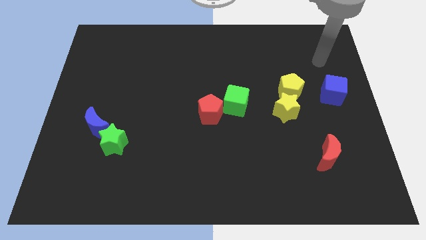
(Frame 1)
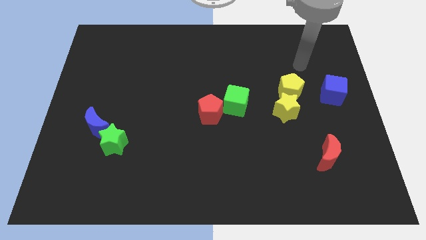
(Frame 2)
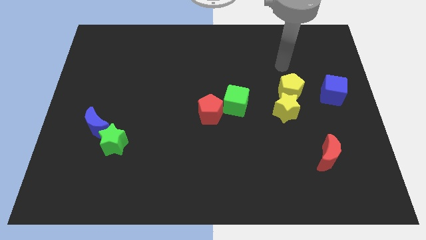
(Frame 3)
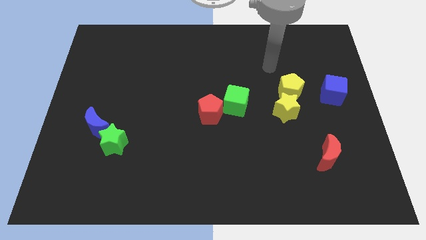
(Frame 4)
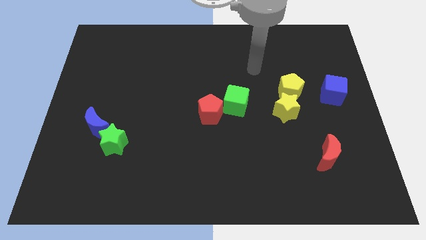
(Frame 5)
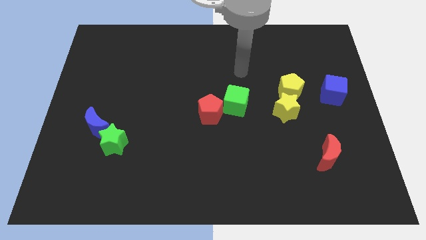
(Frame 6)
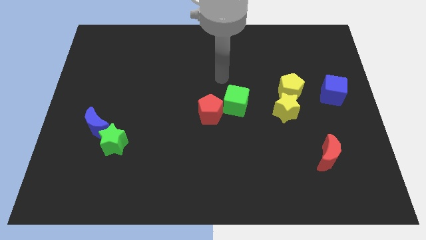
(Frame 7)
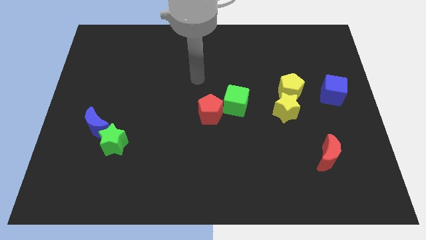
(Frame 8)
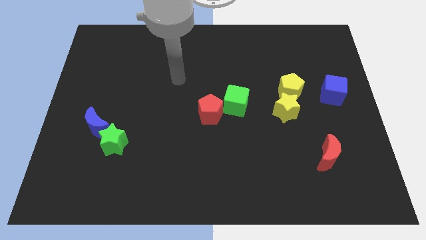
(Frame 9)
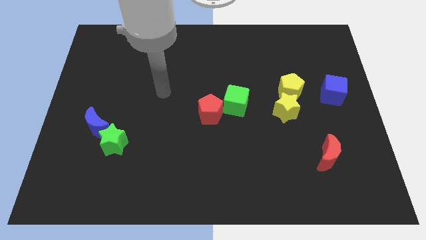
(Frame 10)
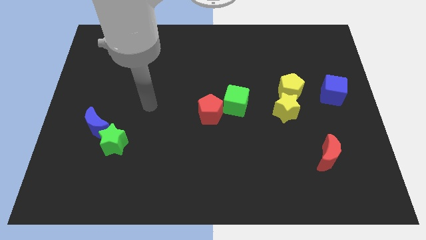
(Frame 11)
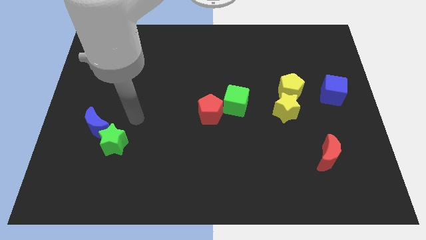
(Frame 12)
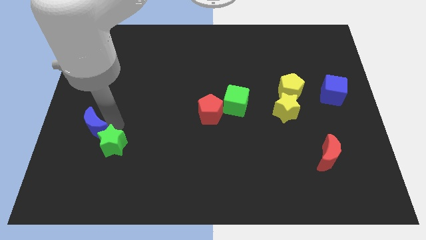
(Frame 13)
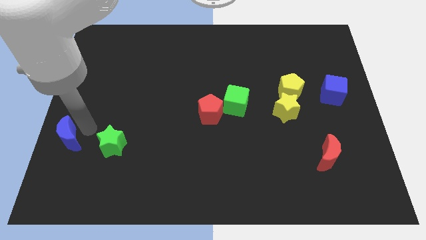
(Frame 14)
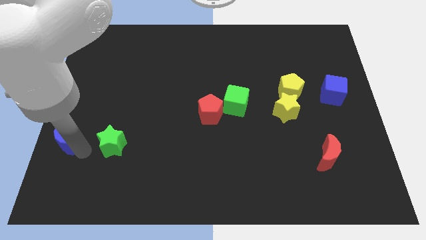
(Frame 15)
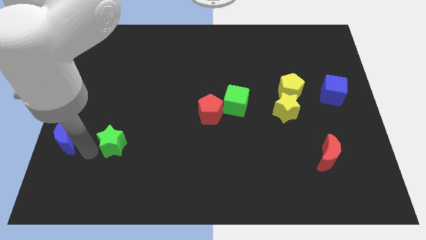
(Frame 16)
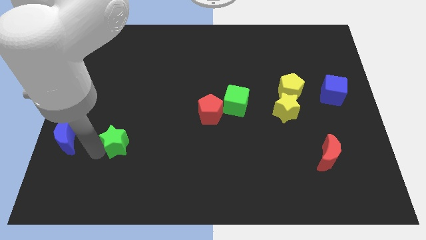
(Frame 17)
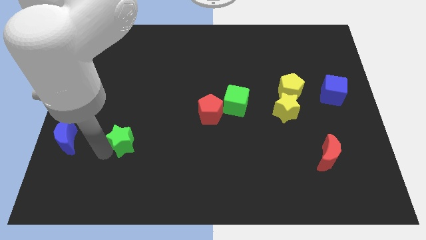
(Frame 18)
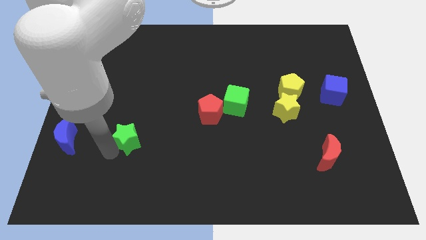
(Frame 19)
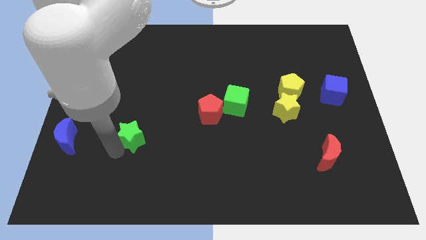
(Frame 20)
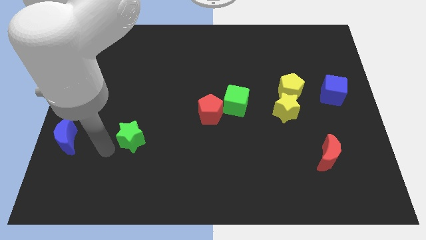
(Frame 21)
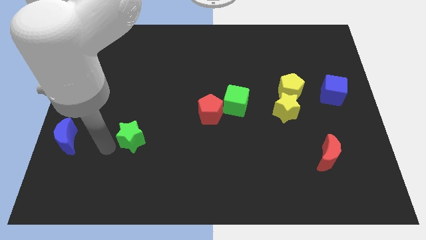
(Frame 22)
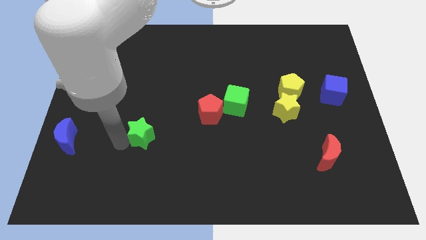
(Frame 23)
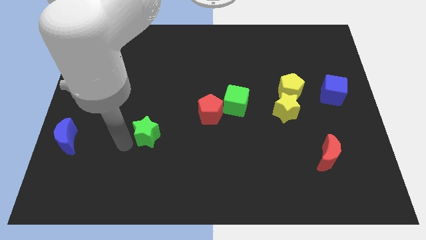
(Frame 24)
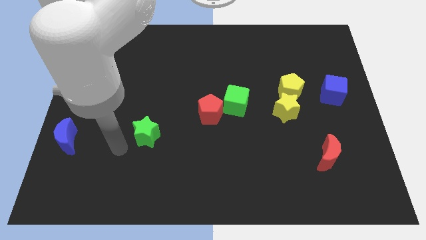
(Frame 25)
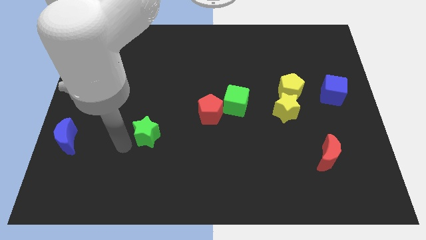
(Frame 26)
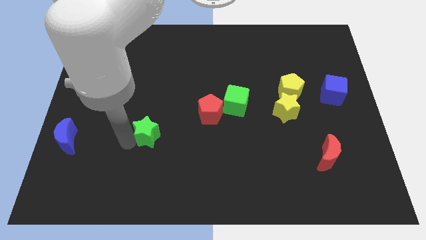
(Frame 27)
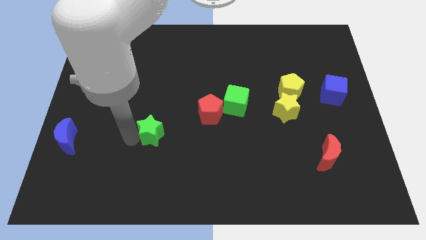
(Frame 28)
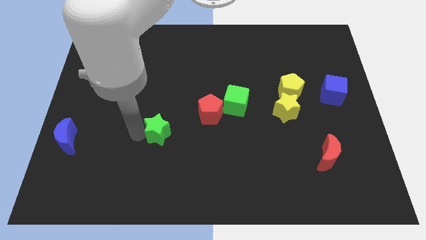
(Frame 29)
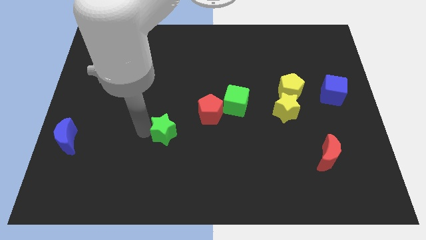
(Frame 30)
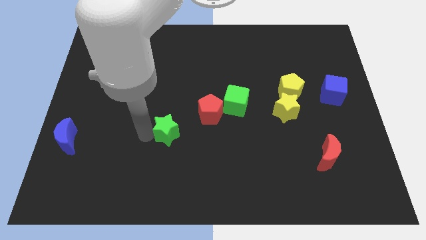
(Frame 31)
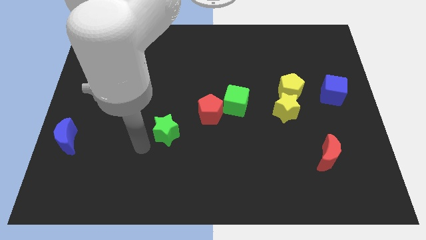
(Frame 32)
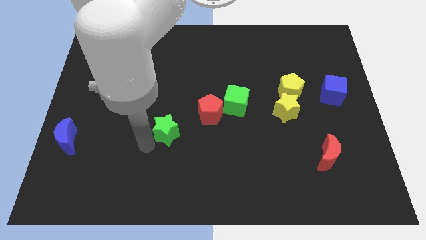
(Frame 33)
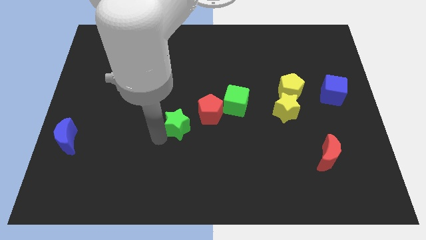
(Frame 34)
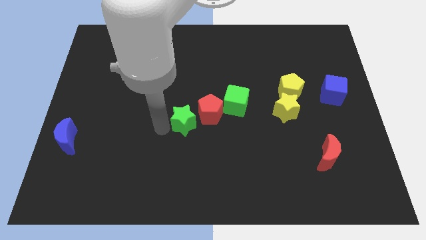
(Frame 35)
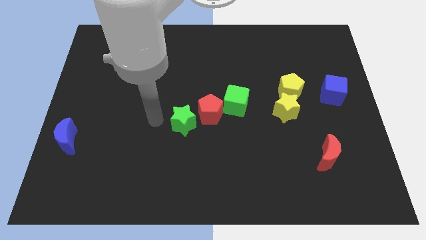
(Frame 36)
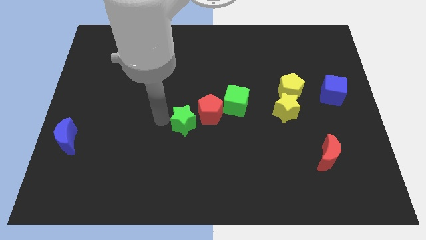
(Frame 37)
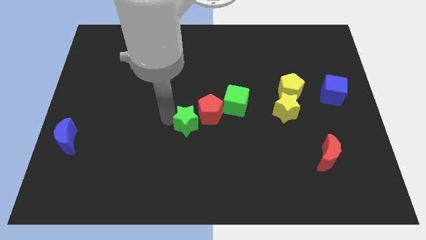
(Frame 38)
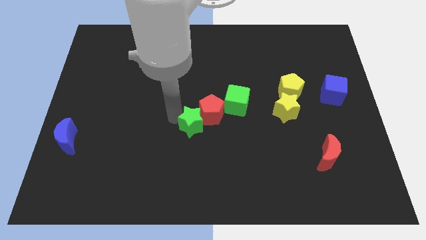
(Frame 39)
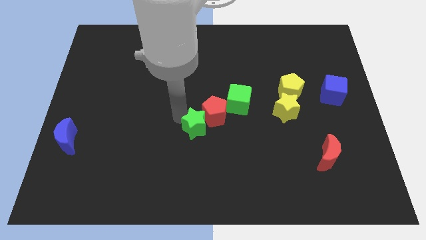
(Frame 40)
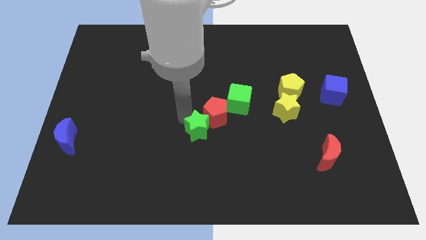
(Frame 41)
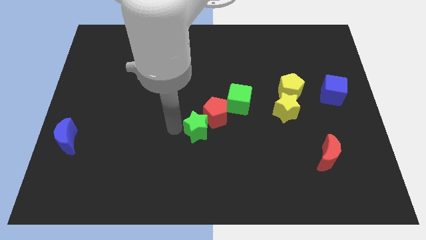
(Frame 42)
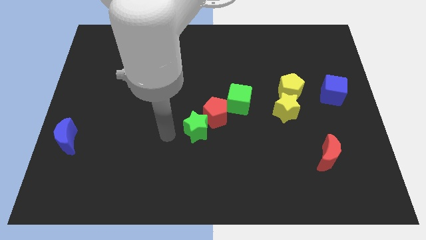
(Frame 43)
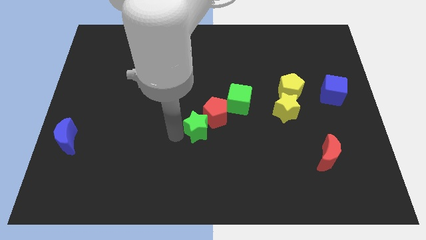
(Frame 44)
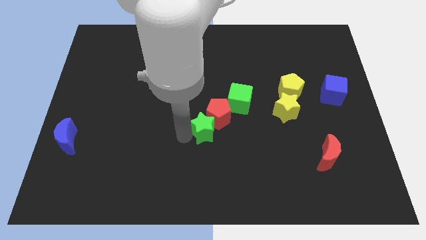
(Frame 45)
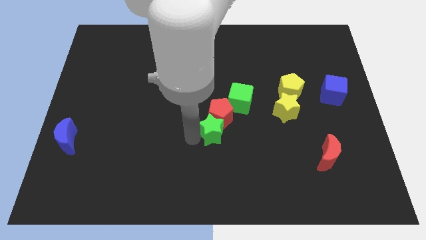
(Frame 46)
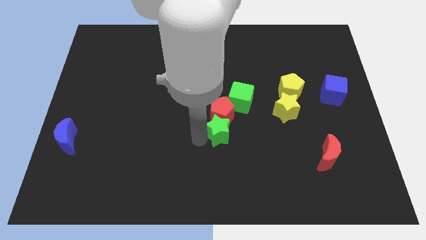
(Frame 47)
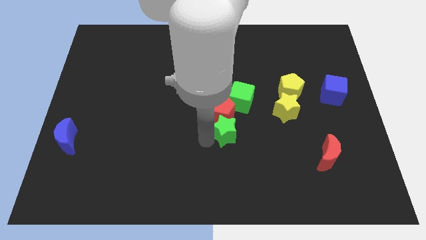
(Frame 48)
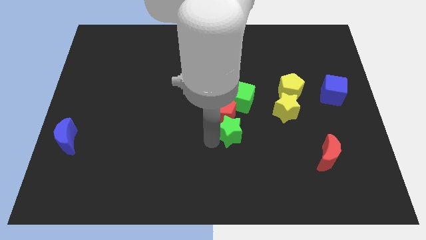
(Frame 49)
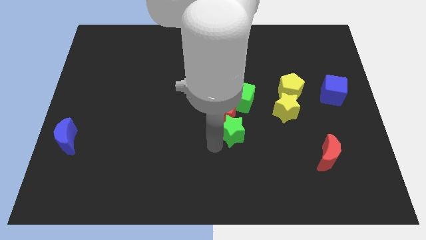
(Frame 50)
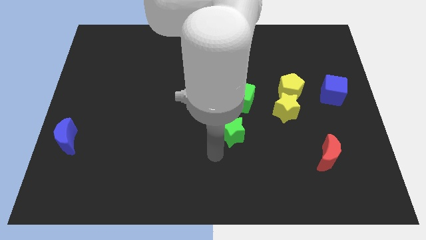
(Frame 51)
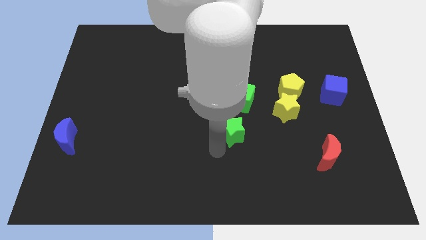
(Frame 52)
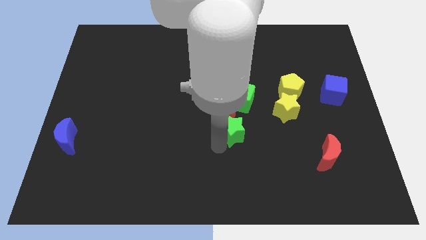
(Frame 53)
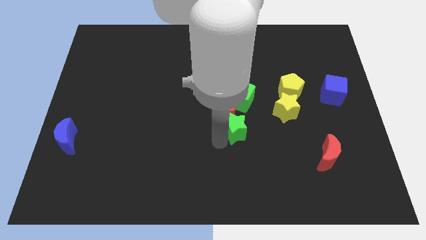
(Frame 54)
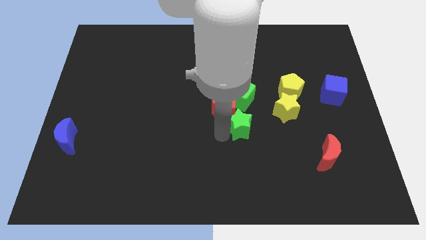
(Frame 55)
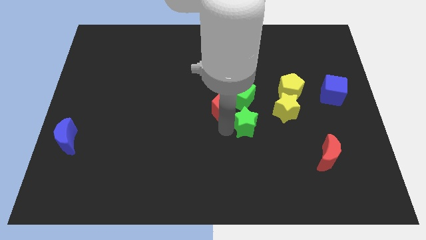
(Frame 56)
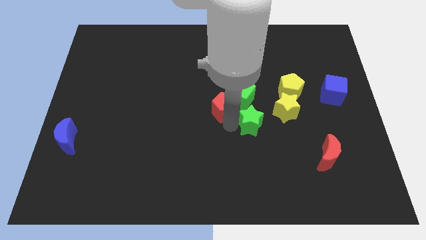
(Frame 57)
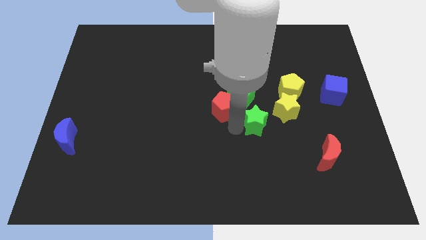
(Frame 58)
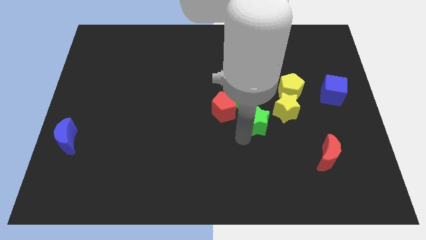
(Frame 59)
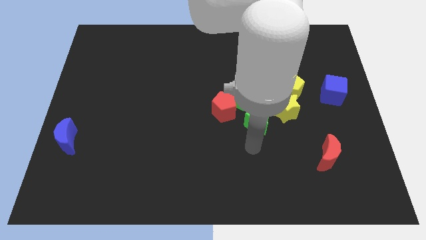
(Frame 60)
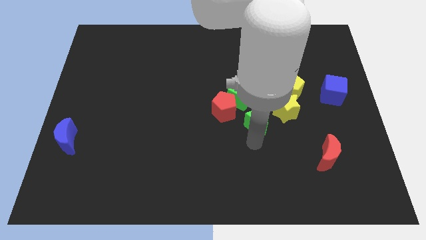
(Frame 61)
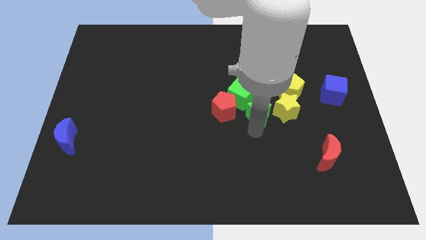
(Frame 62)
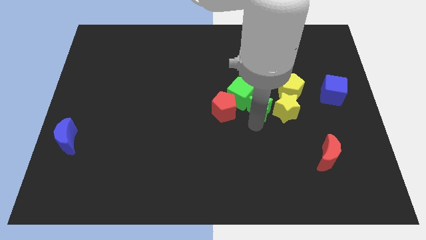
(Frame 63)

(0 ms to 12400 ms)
put the green star to the top left side of the yellow star

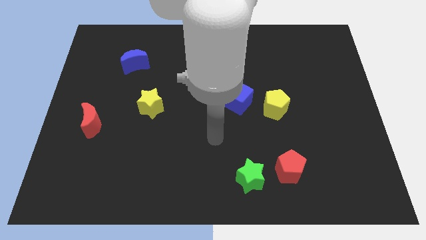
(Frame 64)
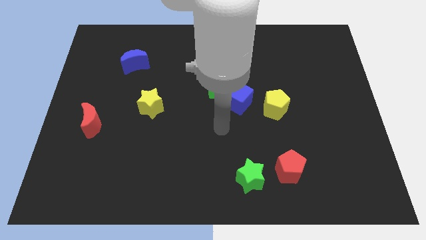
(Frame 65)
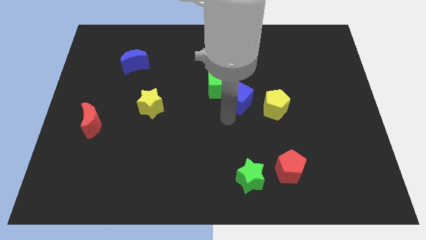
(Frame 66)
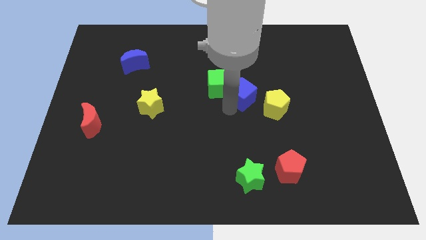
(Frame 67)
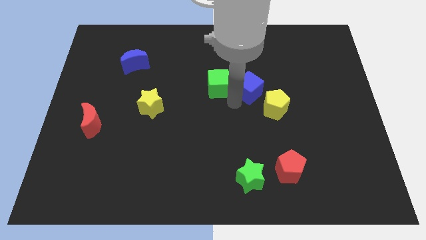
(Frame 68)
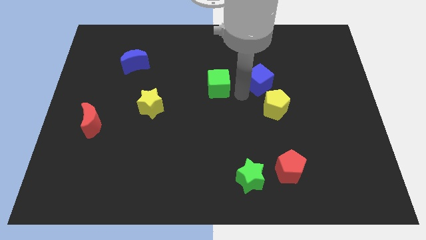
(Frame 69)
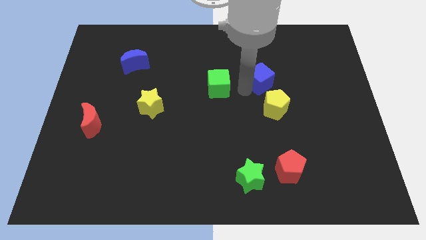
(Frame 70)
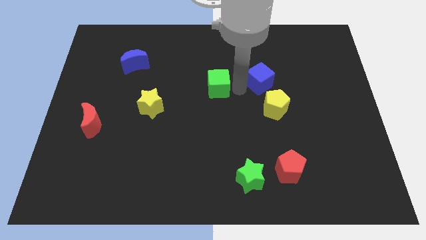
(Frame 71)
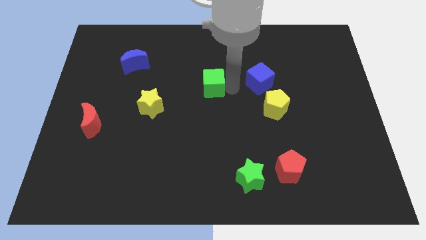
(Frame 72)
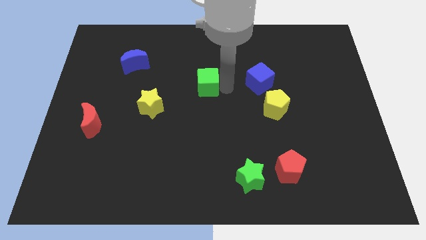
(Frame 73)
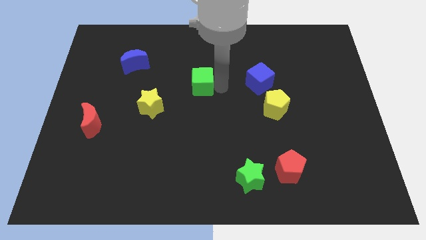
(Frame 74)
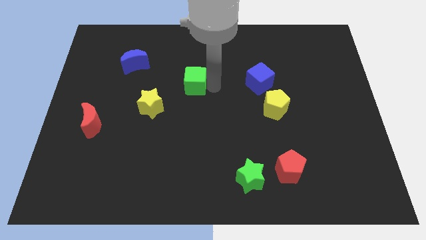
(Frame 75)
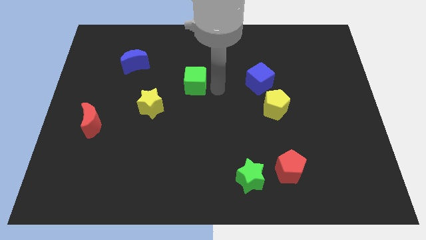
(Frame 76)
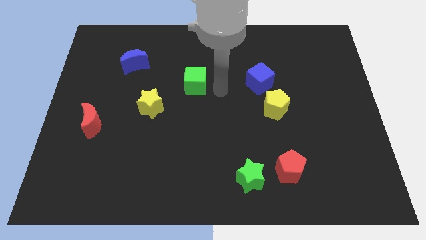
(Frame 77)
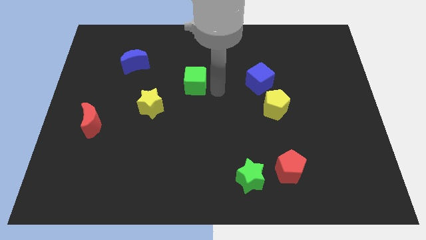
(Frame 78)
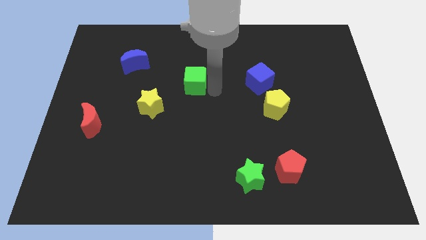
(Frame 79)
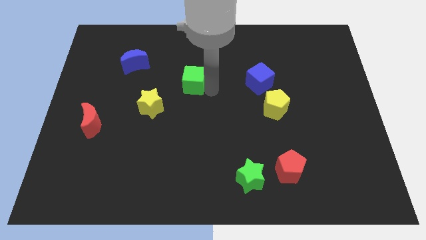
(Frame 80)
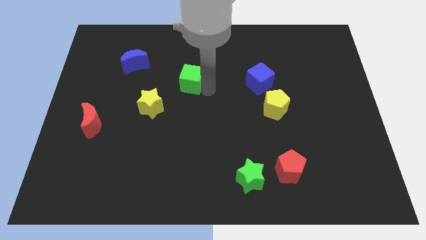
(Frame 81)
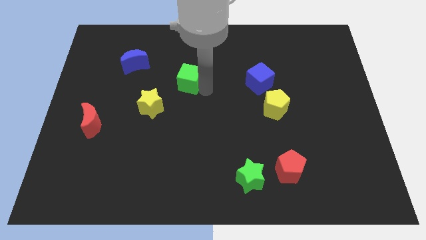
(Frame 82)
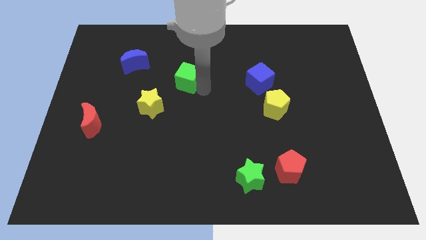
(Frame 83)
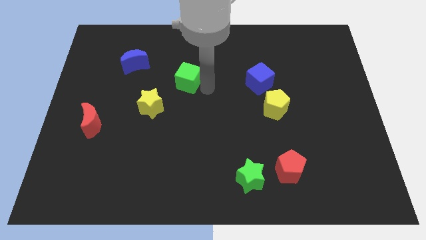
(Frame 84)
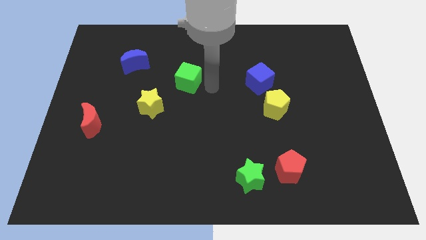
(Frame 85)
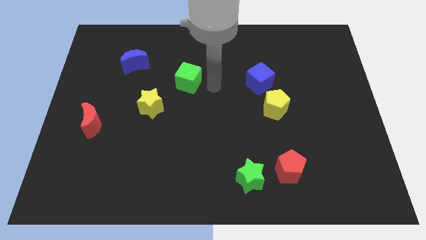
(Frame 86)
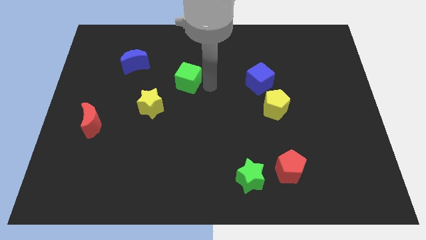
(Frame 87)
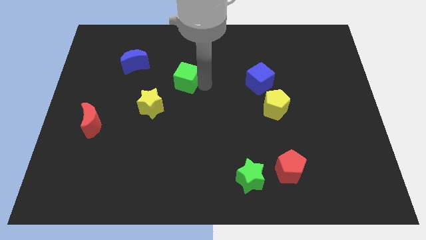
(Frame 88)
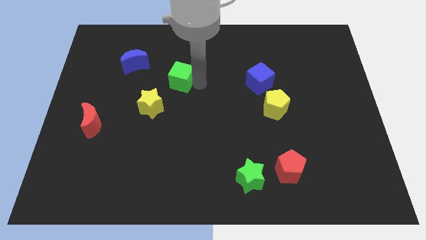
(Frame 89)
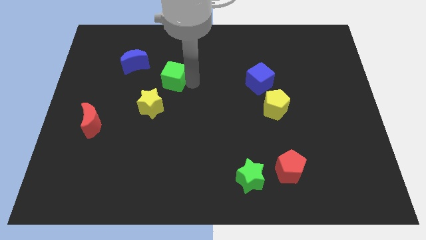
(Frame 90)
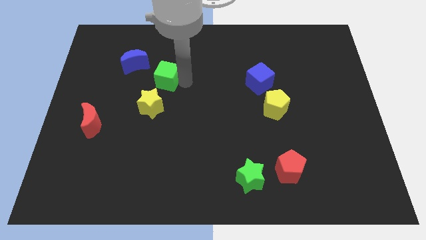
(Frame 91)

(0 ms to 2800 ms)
slide the green cube to the top side of the yellow star
